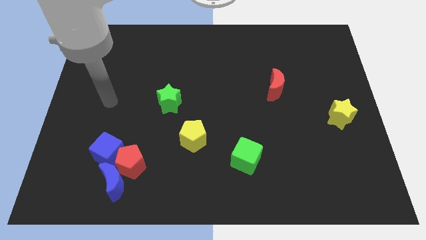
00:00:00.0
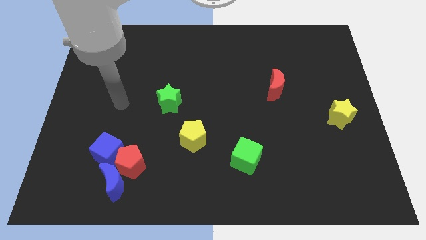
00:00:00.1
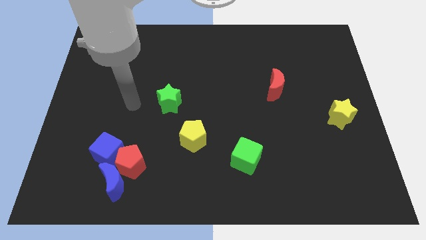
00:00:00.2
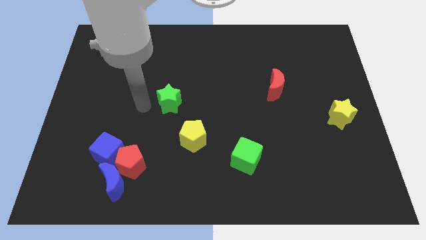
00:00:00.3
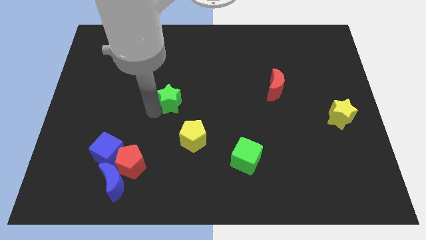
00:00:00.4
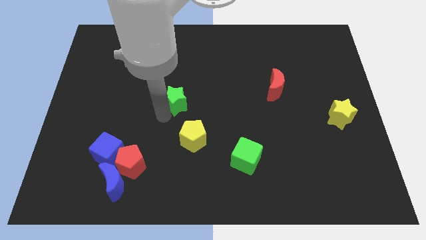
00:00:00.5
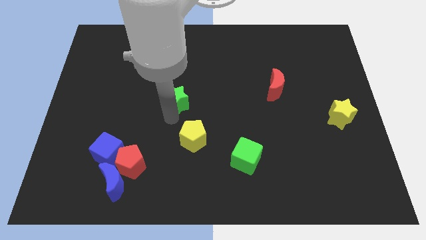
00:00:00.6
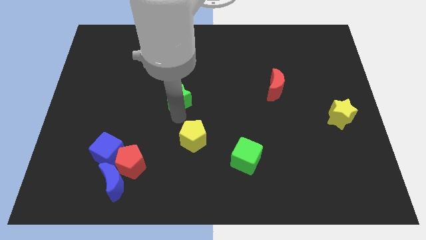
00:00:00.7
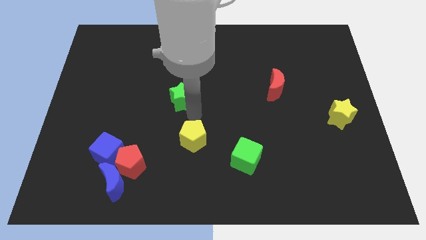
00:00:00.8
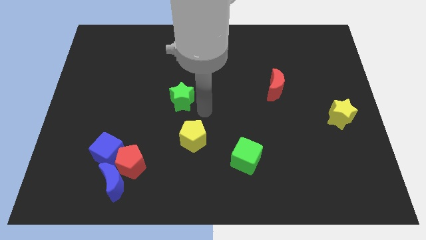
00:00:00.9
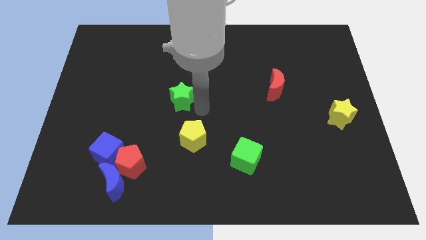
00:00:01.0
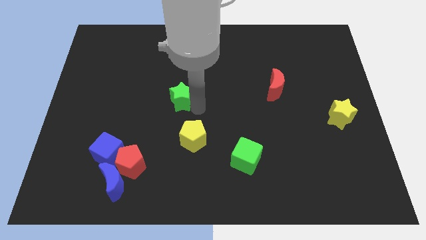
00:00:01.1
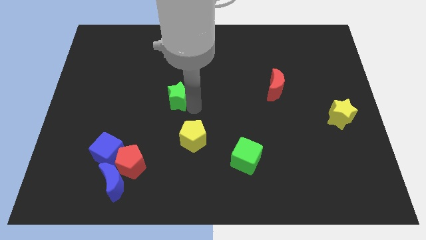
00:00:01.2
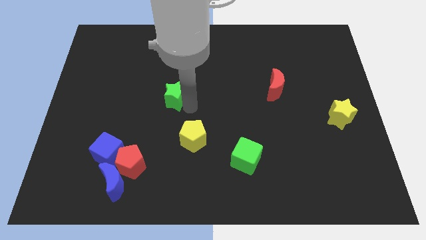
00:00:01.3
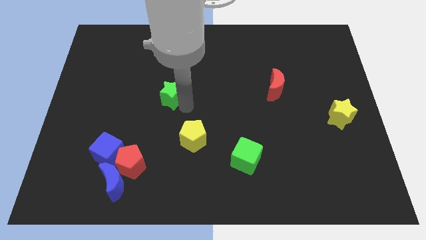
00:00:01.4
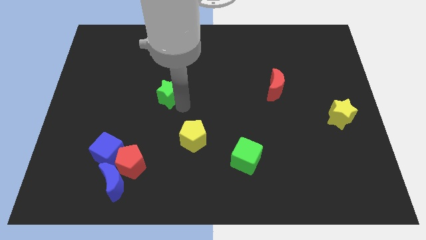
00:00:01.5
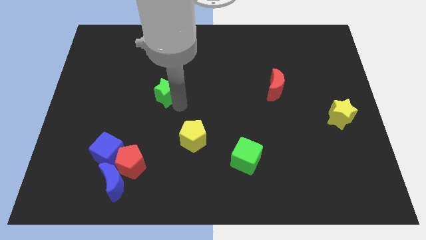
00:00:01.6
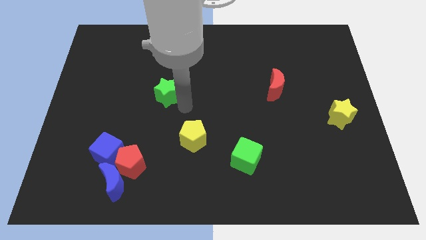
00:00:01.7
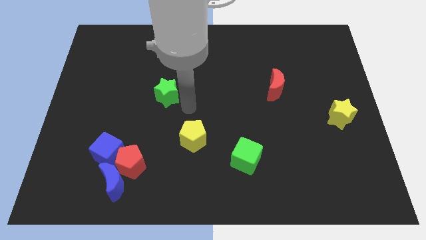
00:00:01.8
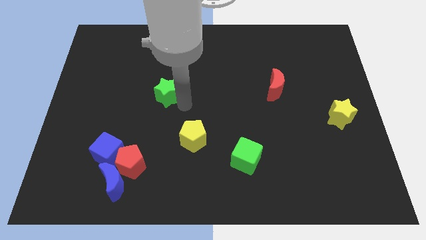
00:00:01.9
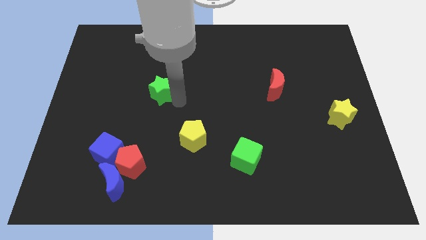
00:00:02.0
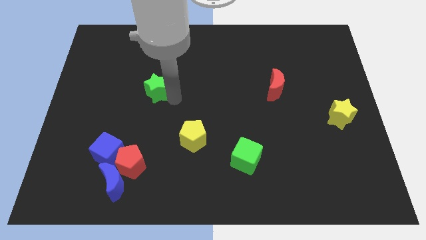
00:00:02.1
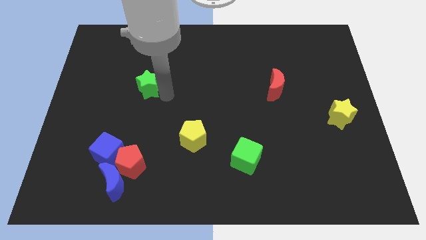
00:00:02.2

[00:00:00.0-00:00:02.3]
move the green star a bit upwards and left diagonally

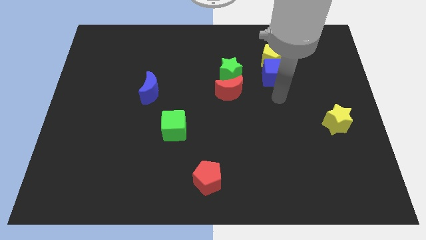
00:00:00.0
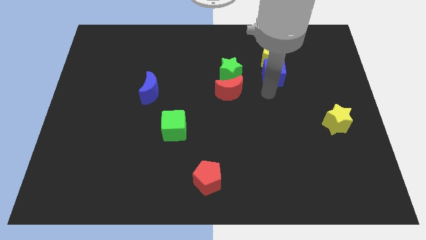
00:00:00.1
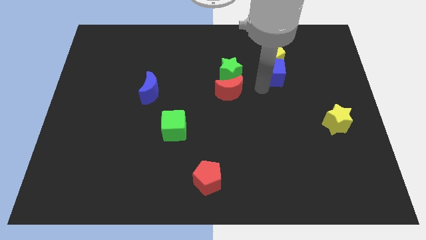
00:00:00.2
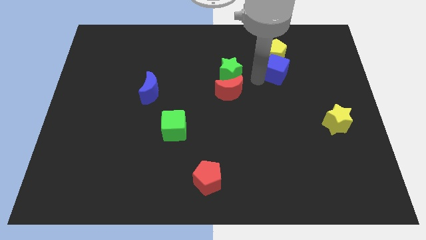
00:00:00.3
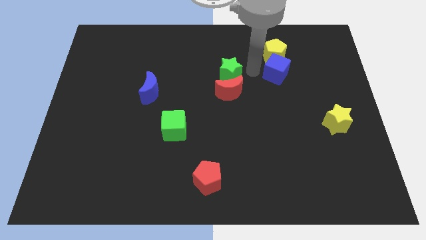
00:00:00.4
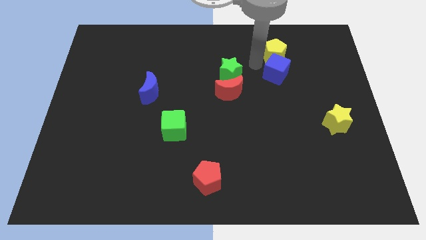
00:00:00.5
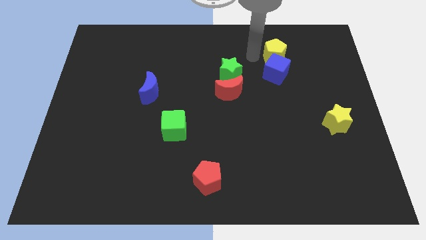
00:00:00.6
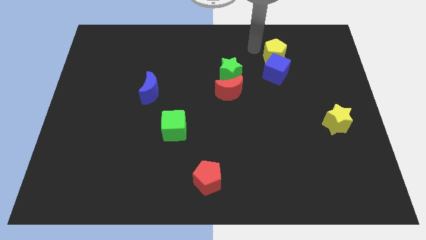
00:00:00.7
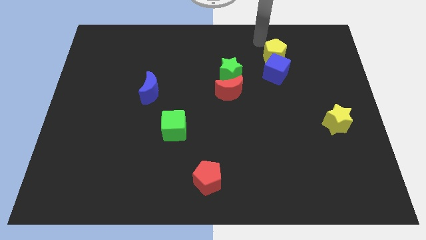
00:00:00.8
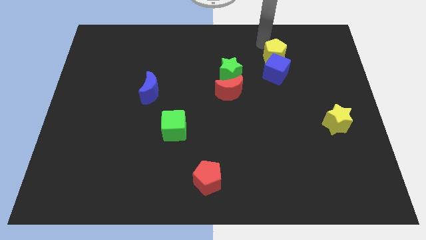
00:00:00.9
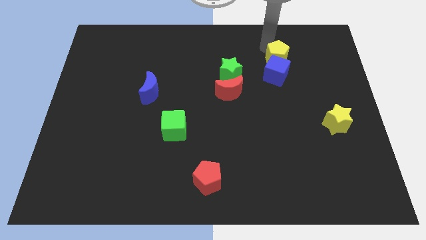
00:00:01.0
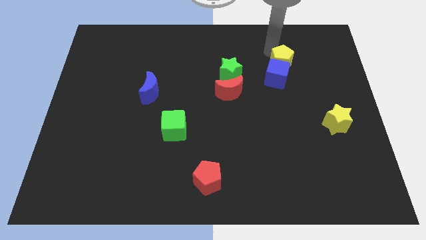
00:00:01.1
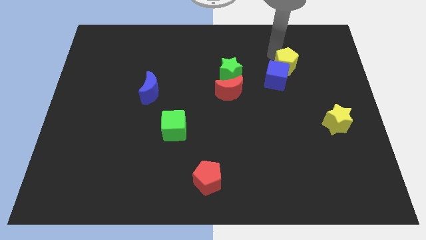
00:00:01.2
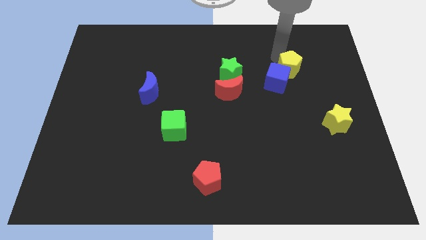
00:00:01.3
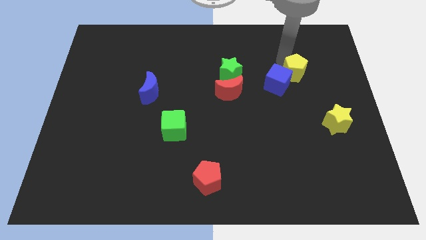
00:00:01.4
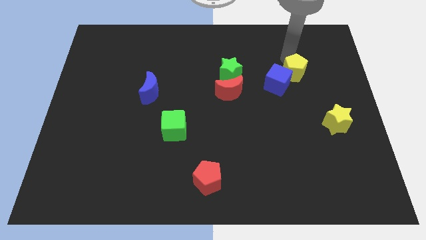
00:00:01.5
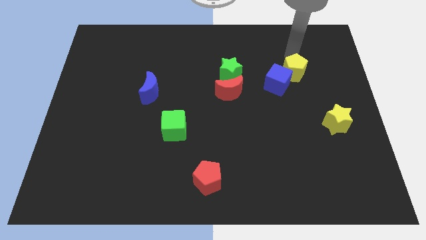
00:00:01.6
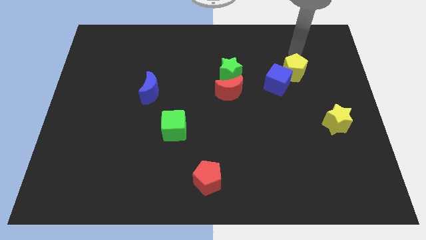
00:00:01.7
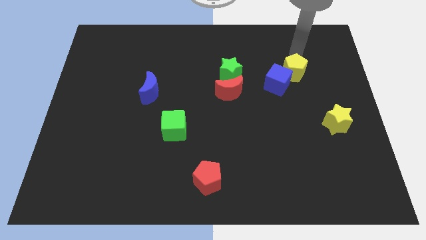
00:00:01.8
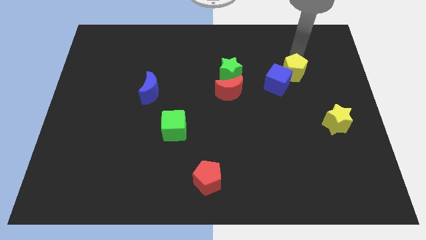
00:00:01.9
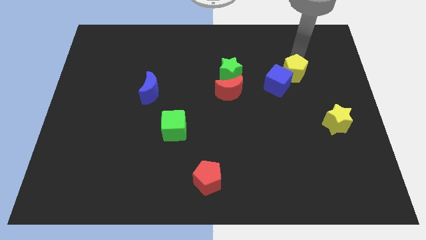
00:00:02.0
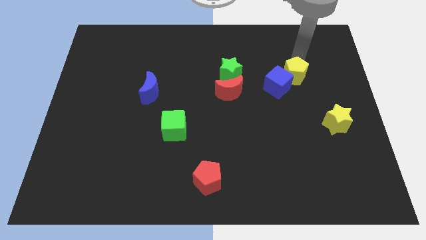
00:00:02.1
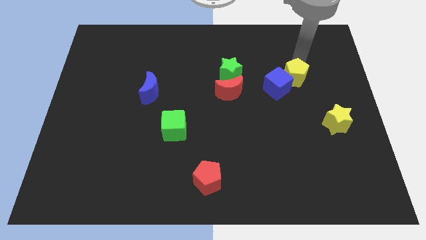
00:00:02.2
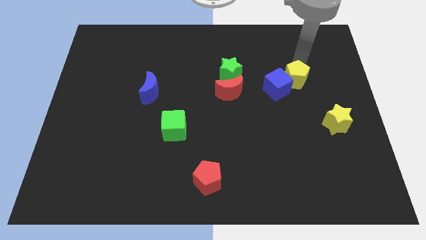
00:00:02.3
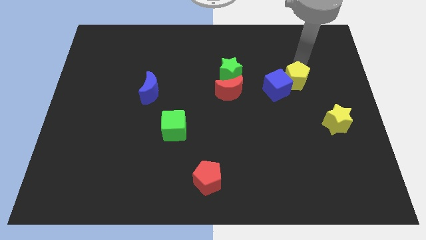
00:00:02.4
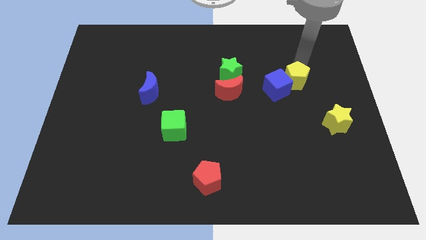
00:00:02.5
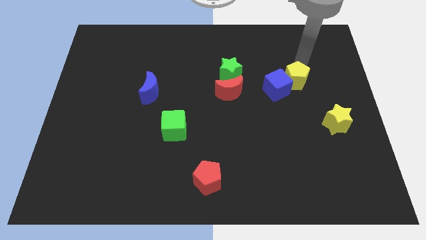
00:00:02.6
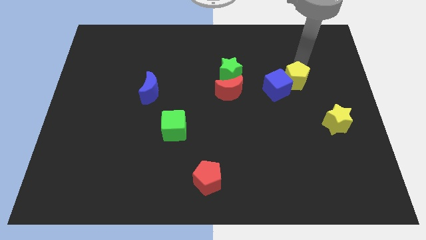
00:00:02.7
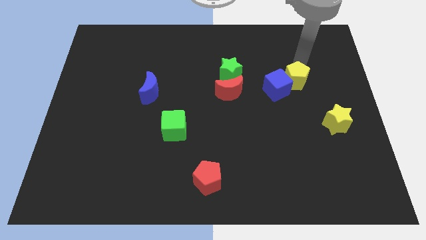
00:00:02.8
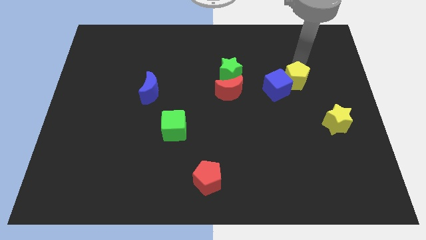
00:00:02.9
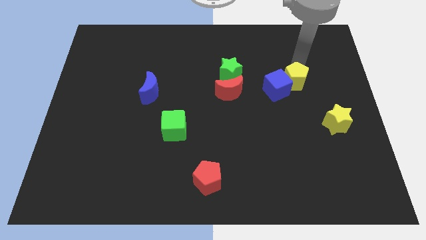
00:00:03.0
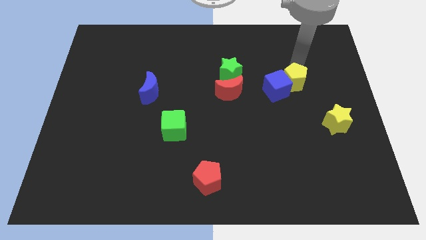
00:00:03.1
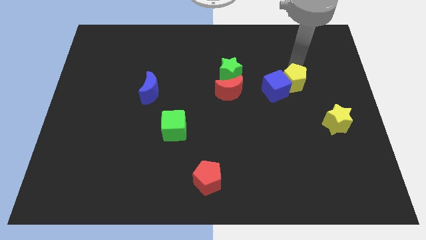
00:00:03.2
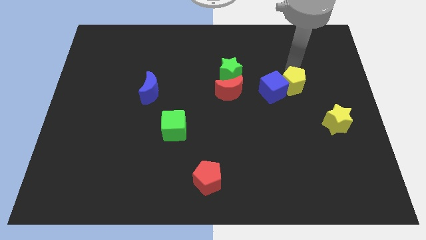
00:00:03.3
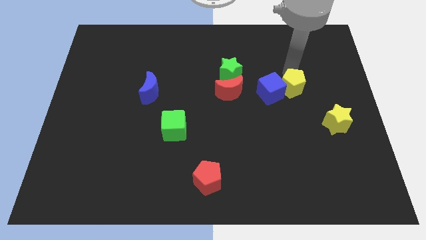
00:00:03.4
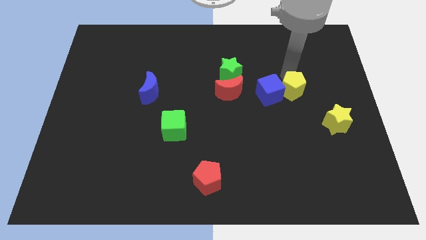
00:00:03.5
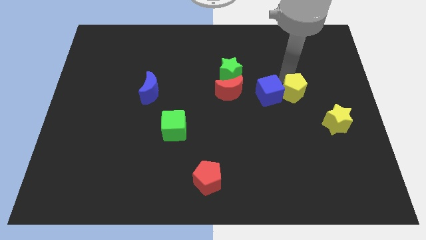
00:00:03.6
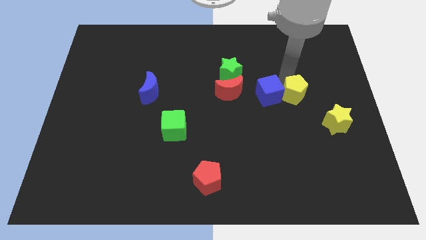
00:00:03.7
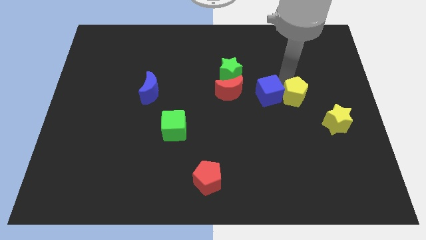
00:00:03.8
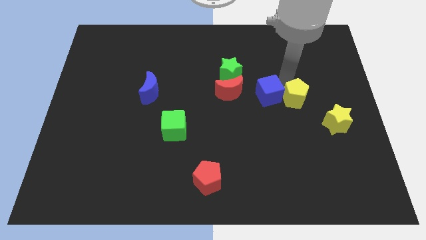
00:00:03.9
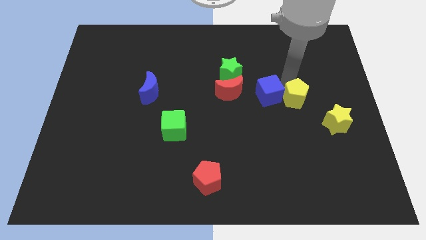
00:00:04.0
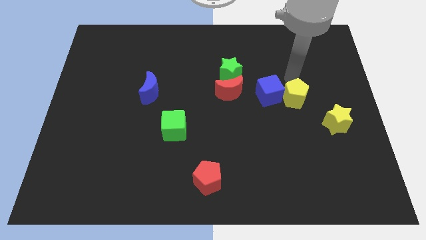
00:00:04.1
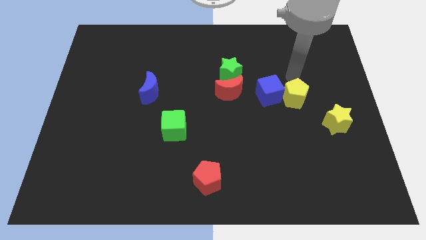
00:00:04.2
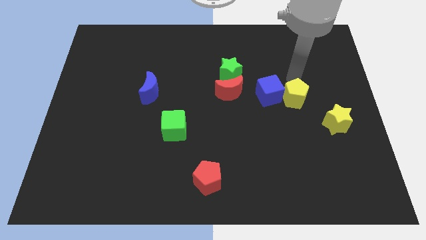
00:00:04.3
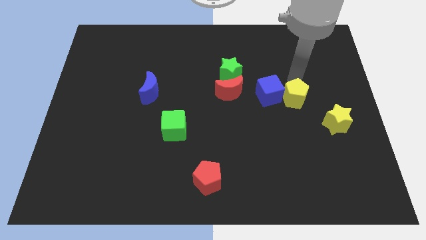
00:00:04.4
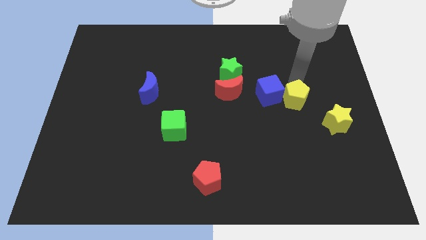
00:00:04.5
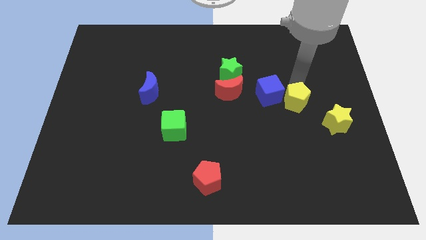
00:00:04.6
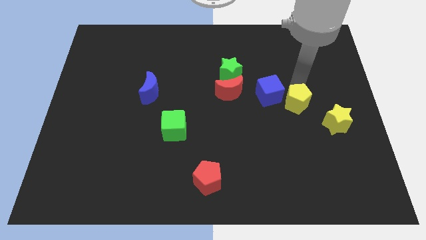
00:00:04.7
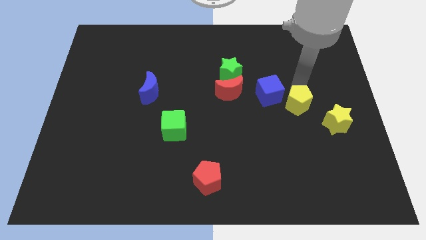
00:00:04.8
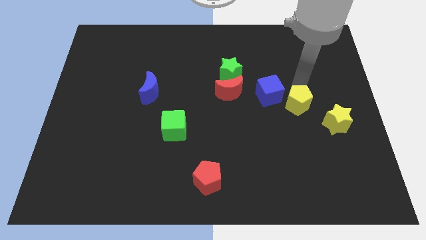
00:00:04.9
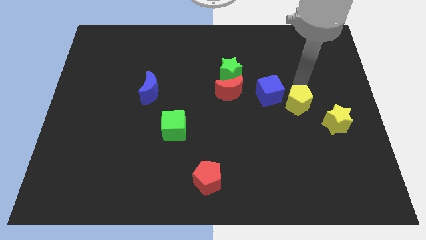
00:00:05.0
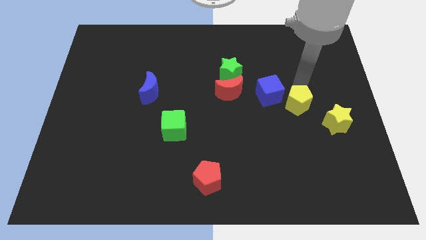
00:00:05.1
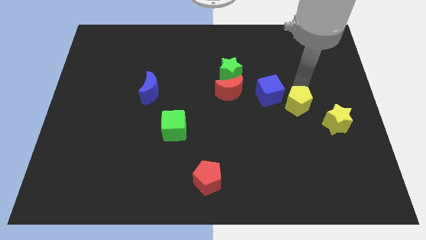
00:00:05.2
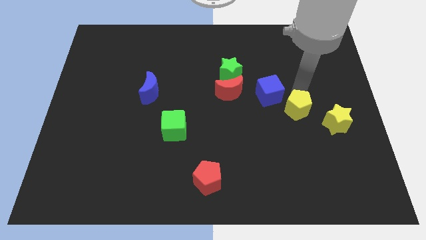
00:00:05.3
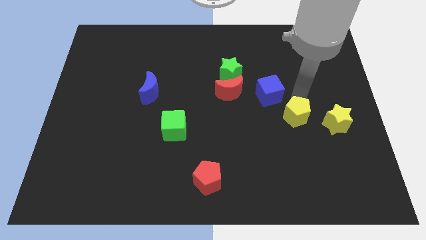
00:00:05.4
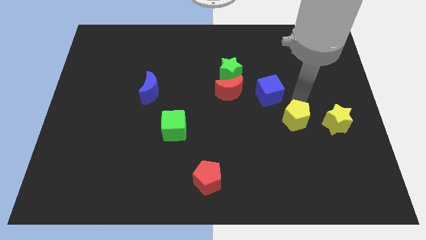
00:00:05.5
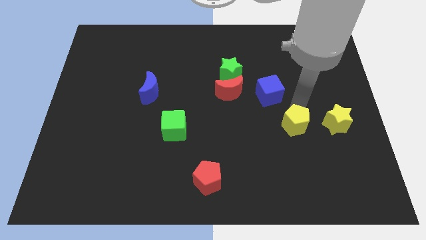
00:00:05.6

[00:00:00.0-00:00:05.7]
move the yellow pentagon down

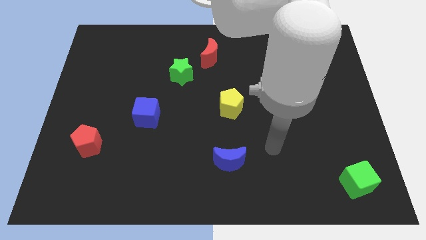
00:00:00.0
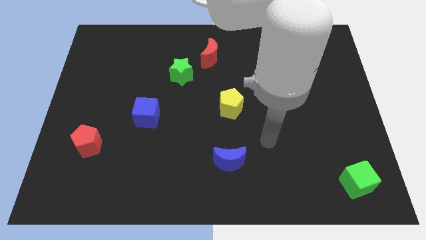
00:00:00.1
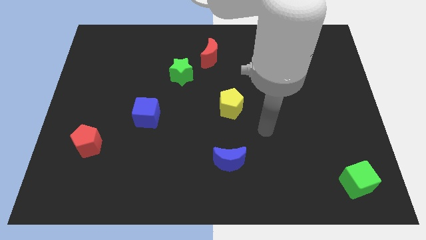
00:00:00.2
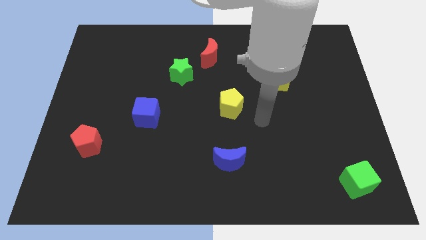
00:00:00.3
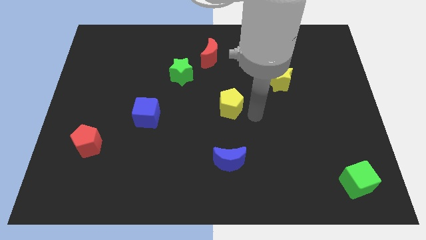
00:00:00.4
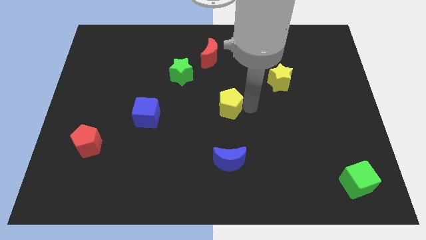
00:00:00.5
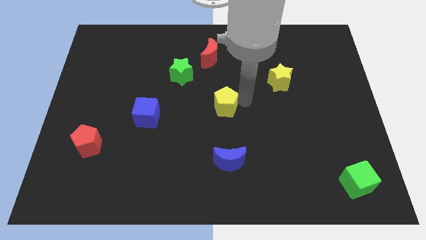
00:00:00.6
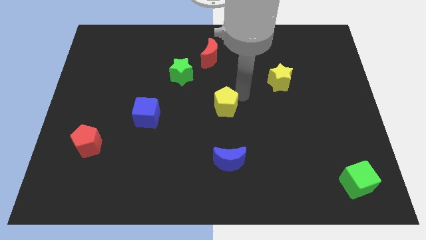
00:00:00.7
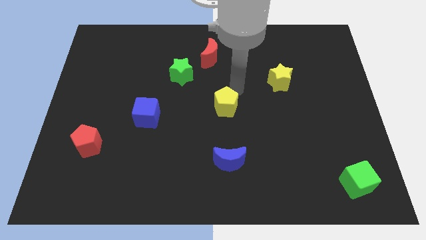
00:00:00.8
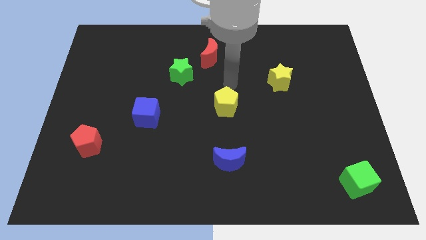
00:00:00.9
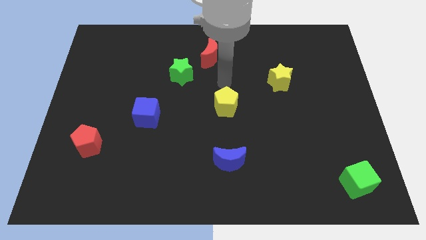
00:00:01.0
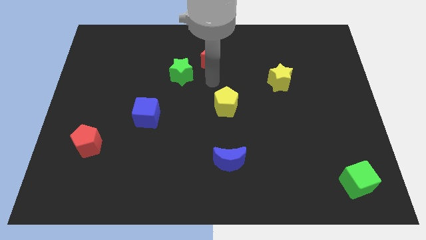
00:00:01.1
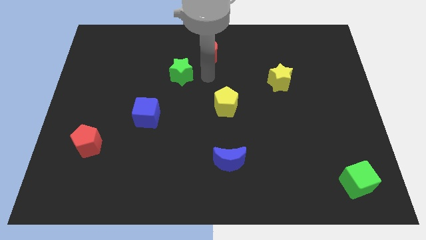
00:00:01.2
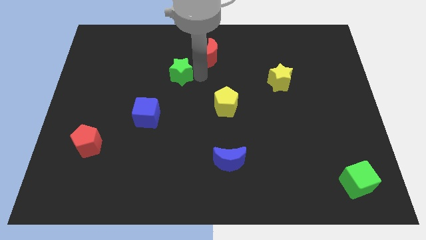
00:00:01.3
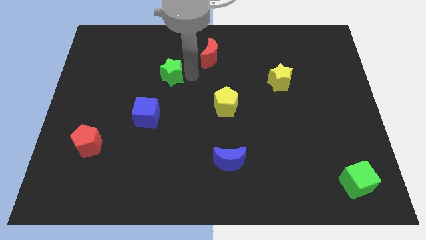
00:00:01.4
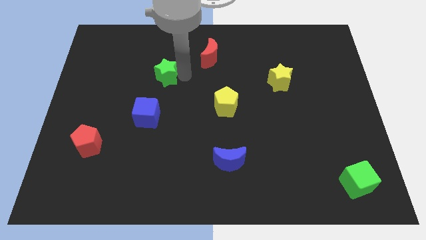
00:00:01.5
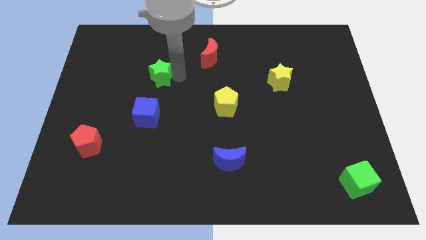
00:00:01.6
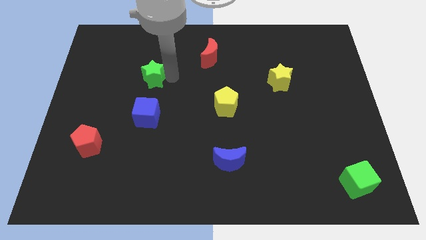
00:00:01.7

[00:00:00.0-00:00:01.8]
move the green star to the left slightly
